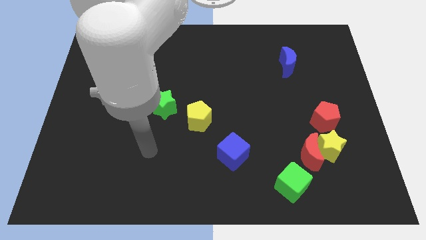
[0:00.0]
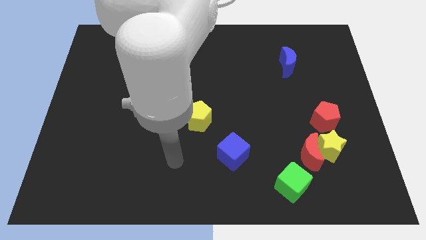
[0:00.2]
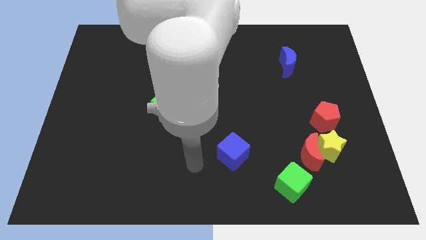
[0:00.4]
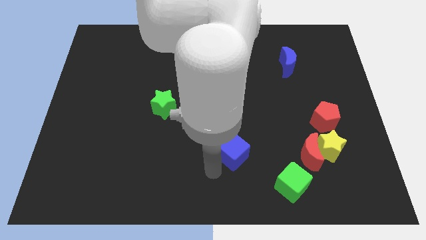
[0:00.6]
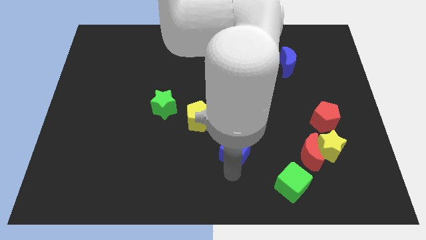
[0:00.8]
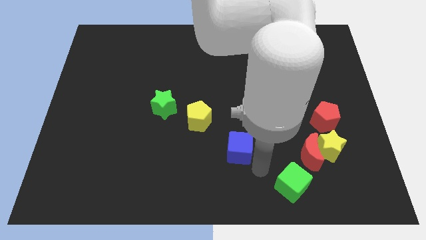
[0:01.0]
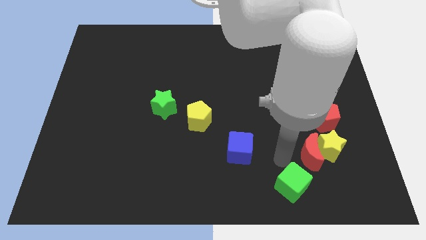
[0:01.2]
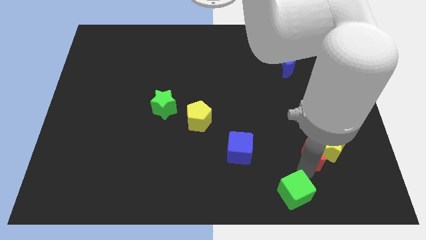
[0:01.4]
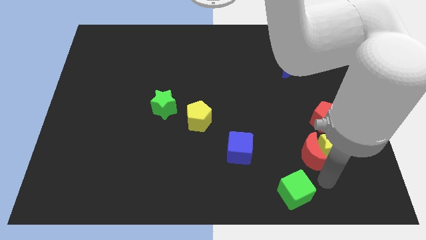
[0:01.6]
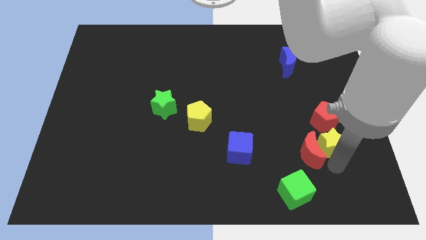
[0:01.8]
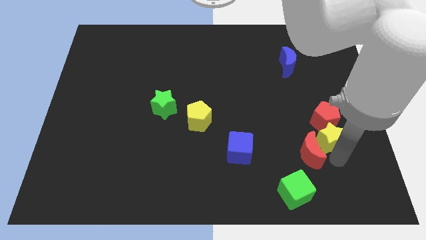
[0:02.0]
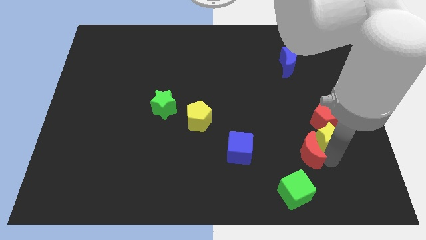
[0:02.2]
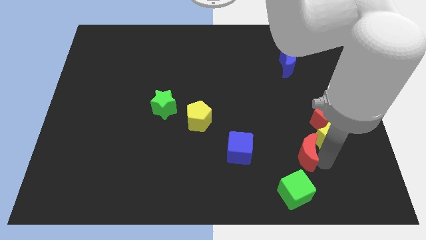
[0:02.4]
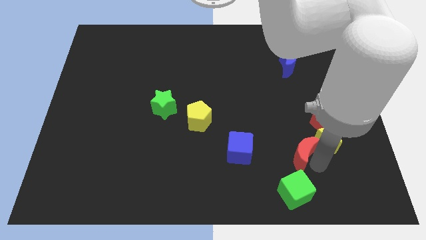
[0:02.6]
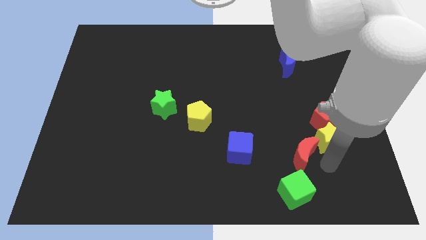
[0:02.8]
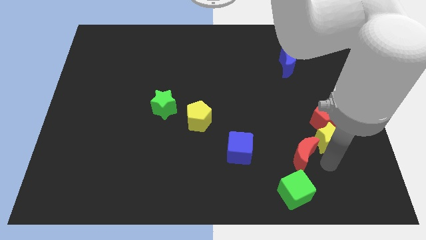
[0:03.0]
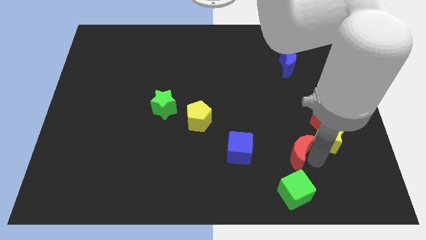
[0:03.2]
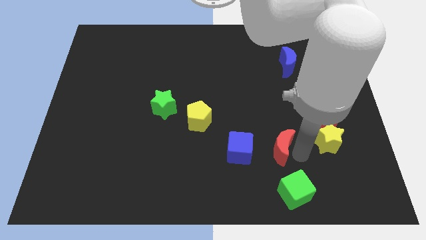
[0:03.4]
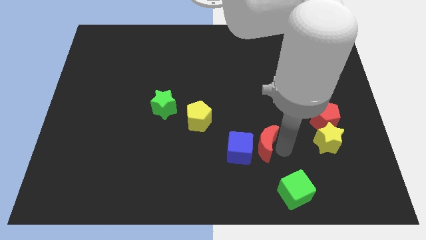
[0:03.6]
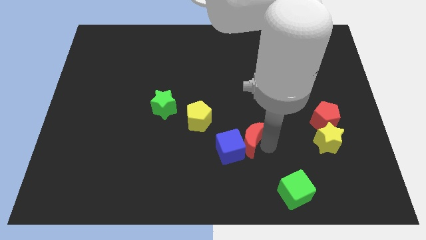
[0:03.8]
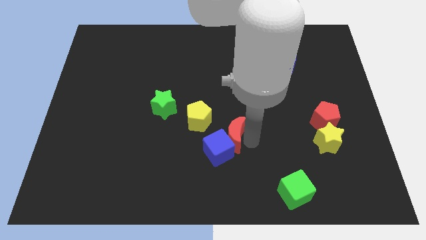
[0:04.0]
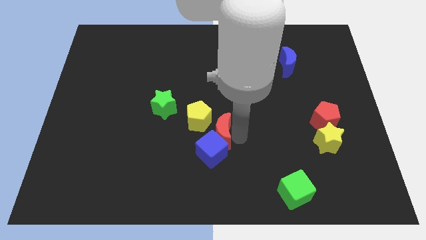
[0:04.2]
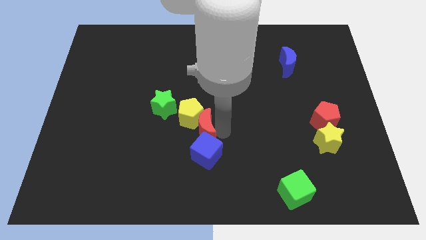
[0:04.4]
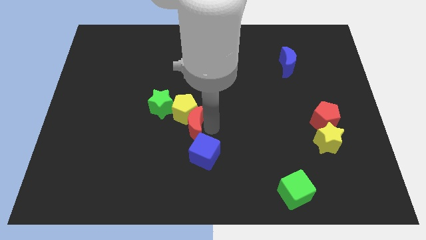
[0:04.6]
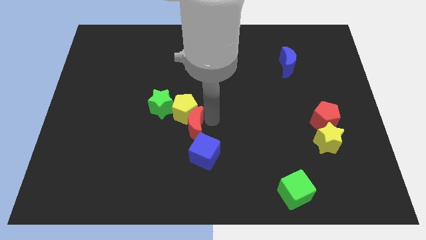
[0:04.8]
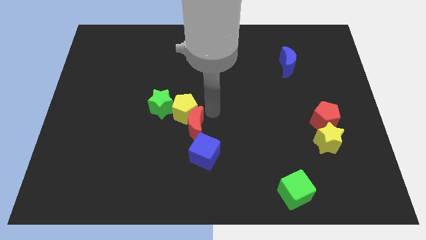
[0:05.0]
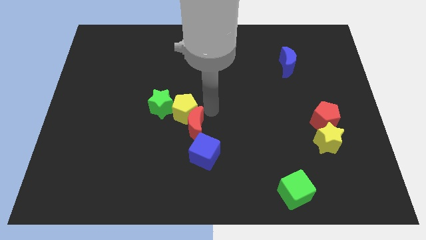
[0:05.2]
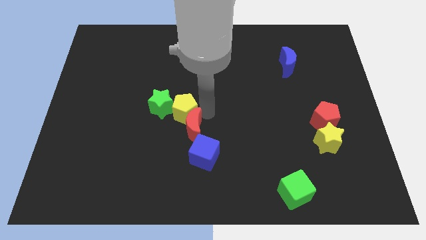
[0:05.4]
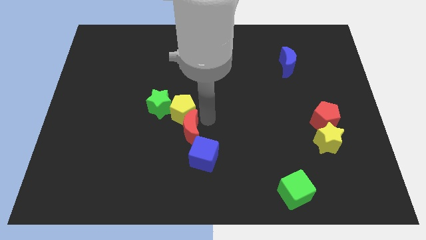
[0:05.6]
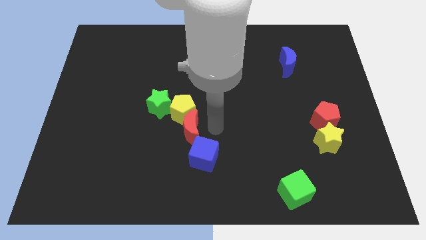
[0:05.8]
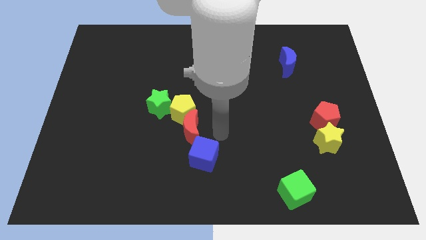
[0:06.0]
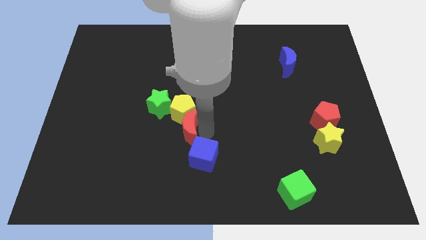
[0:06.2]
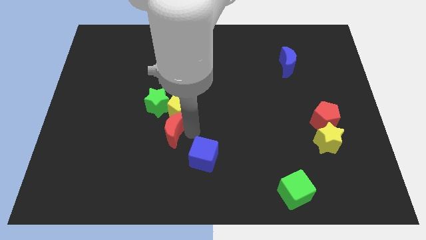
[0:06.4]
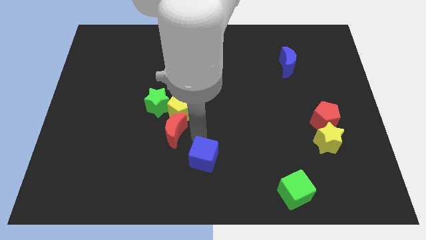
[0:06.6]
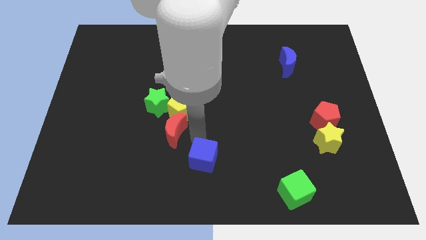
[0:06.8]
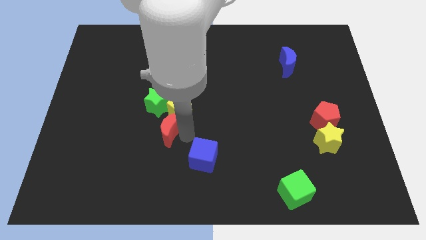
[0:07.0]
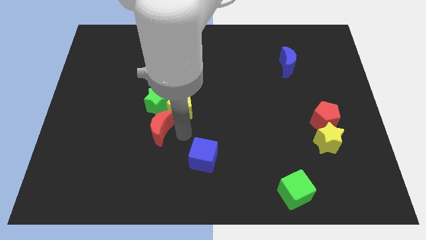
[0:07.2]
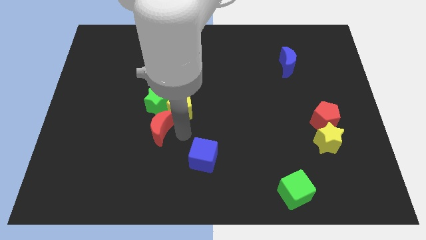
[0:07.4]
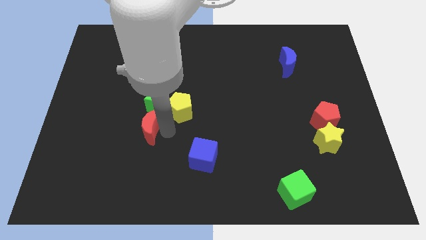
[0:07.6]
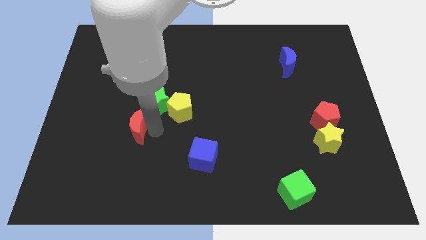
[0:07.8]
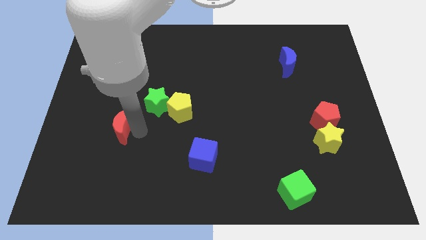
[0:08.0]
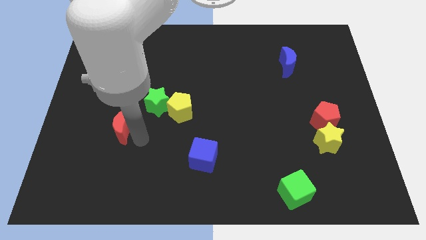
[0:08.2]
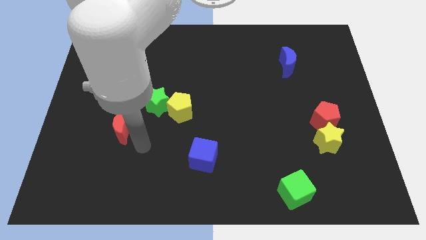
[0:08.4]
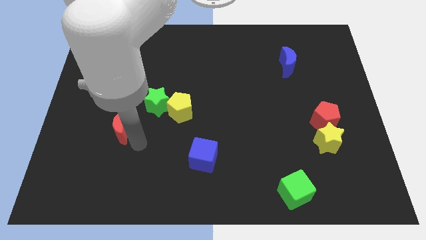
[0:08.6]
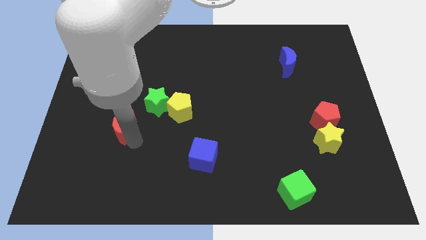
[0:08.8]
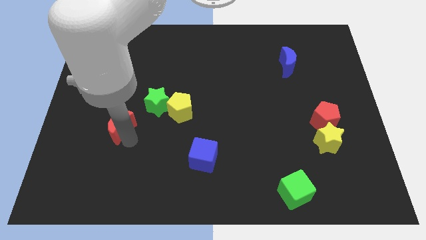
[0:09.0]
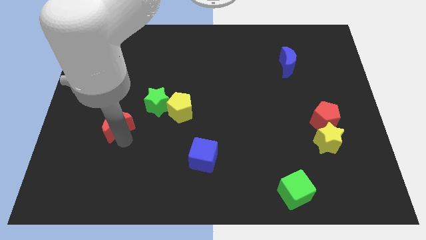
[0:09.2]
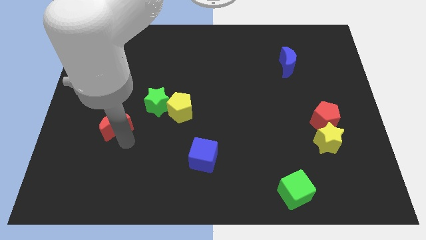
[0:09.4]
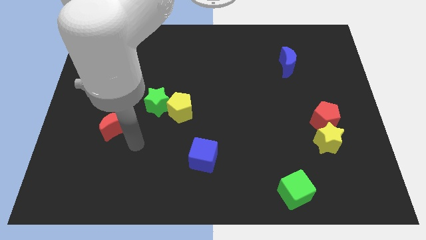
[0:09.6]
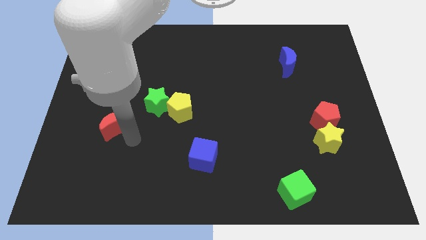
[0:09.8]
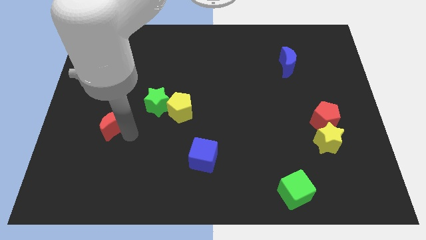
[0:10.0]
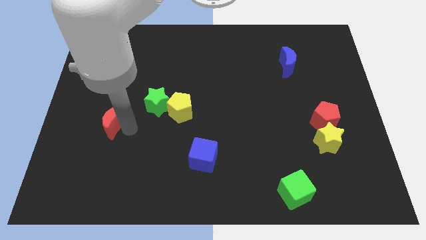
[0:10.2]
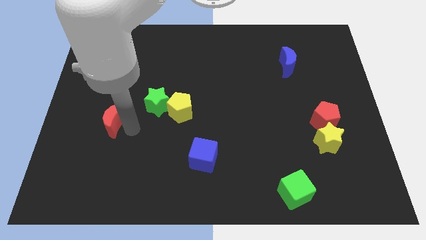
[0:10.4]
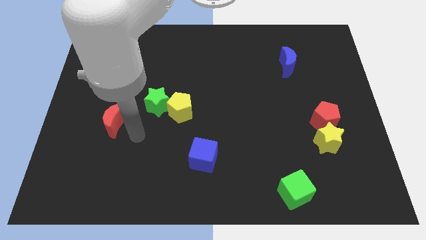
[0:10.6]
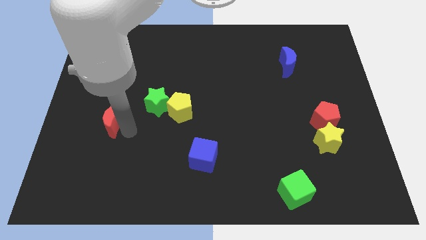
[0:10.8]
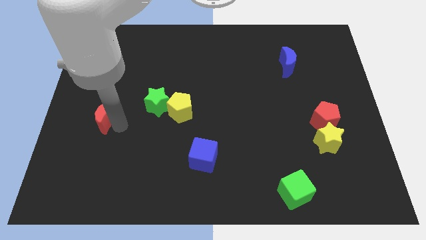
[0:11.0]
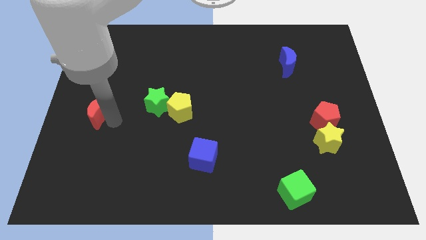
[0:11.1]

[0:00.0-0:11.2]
slide the red moon to the left side

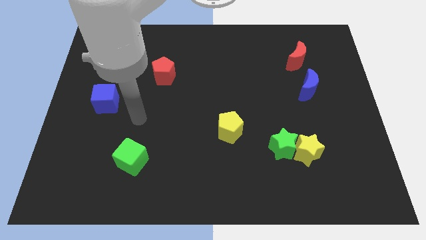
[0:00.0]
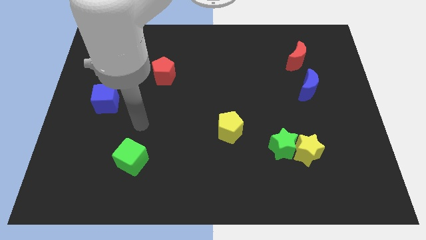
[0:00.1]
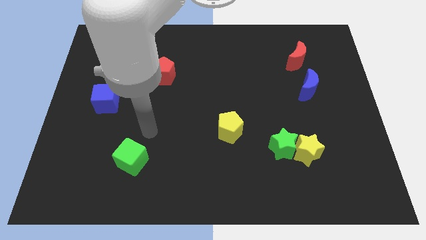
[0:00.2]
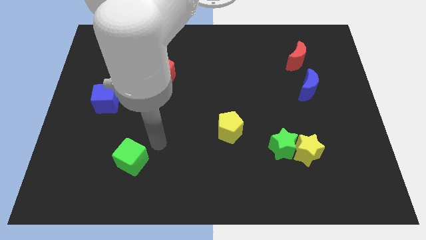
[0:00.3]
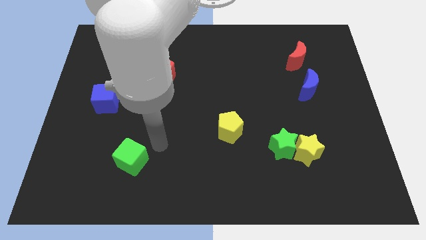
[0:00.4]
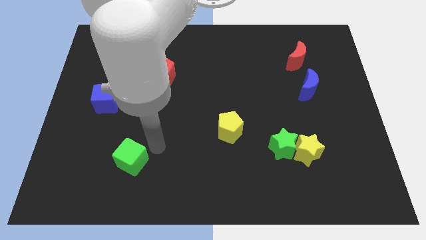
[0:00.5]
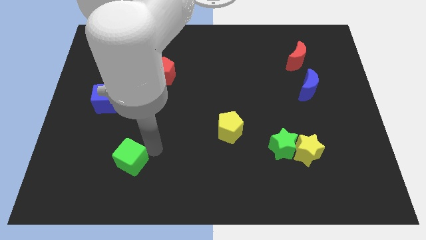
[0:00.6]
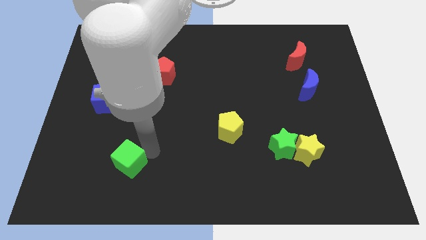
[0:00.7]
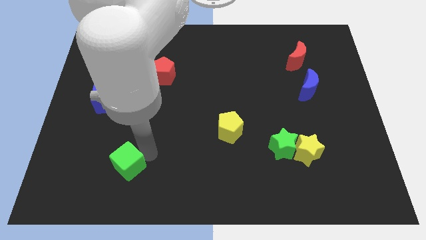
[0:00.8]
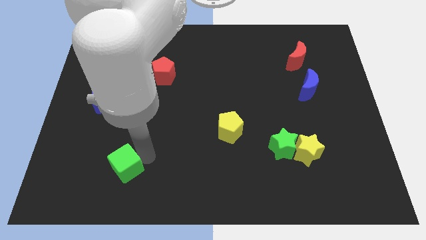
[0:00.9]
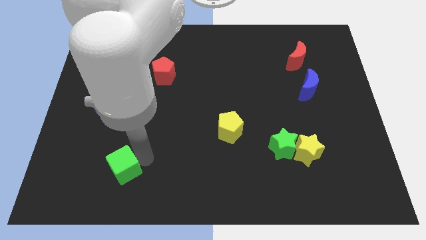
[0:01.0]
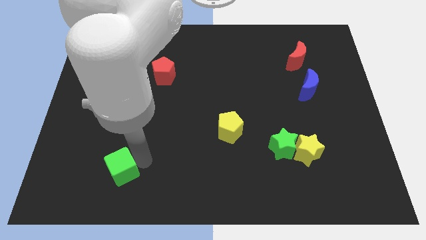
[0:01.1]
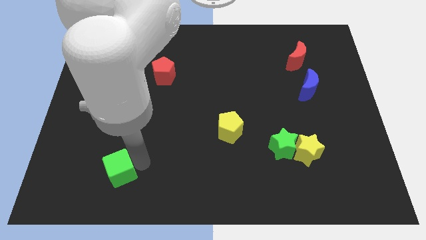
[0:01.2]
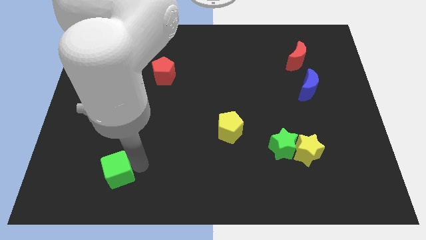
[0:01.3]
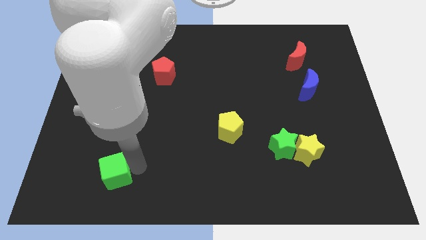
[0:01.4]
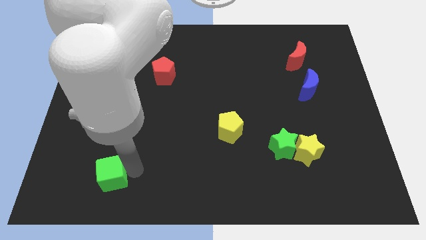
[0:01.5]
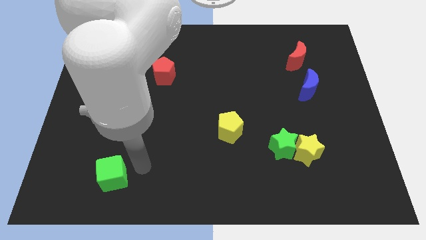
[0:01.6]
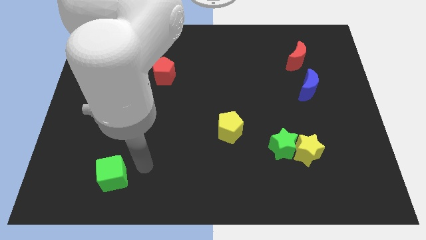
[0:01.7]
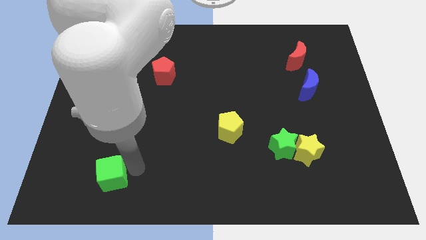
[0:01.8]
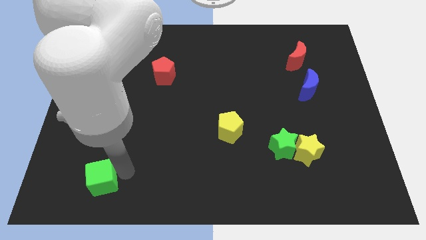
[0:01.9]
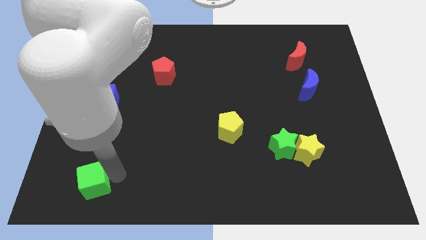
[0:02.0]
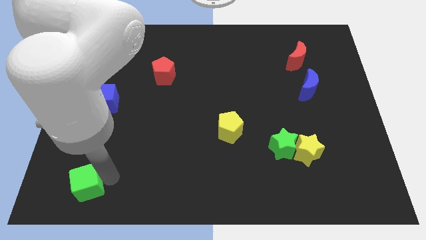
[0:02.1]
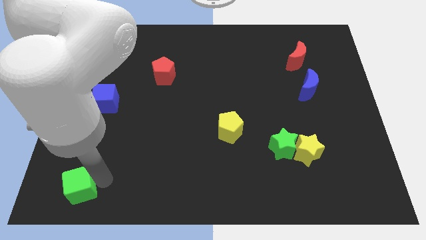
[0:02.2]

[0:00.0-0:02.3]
push the green cube to the bottom left
